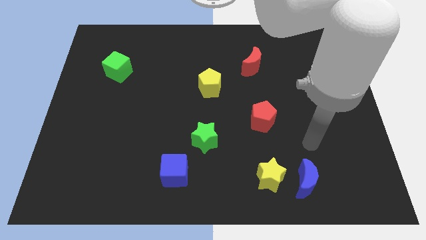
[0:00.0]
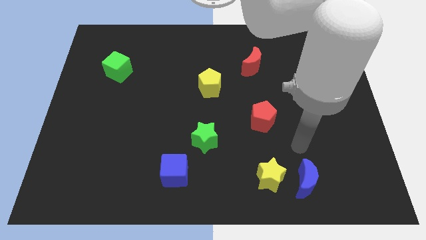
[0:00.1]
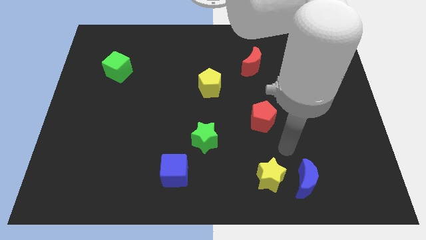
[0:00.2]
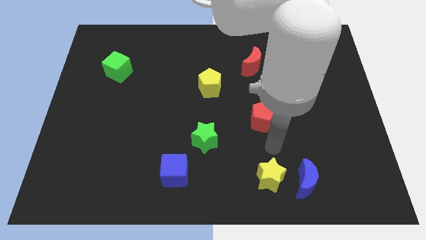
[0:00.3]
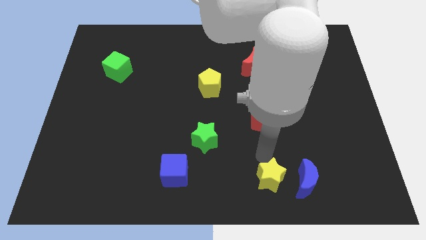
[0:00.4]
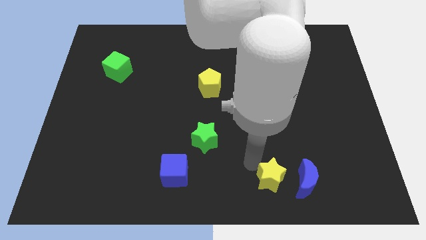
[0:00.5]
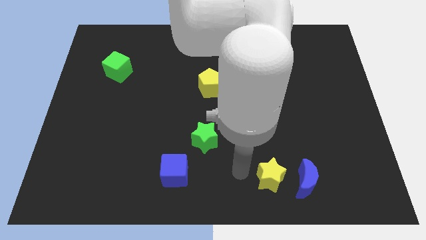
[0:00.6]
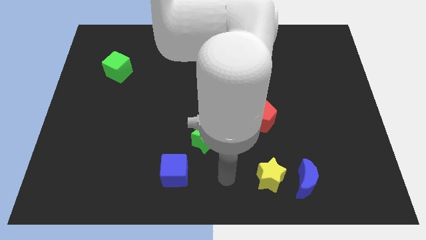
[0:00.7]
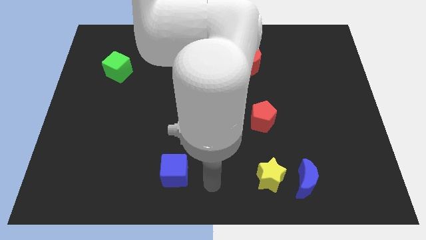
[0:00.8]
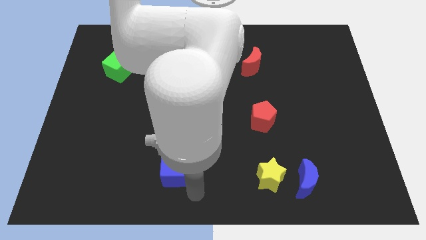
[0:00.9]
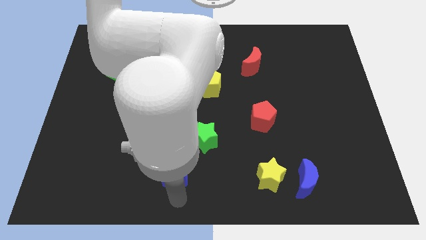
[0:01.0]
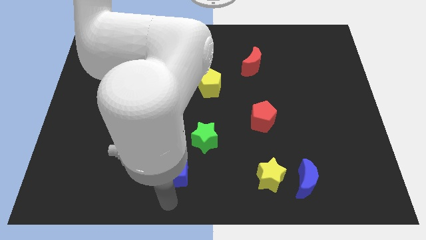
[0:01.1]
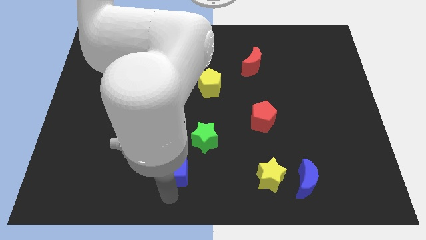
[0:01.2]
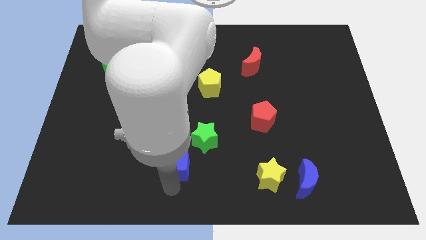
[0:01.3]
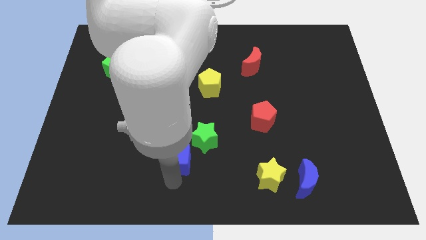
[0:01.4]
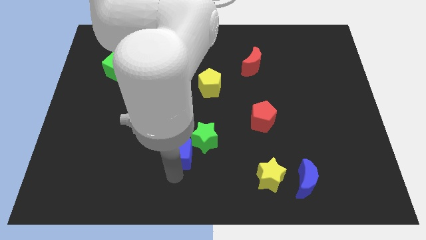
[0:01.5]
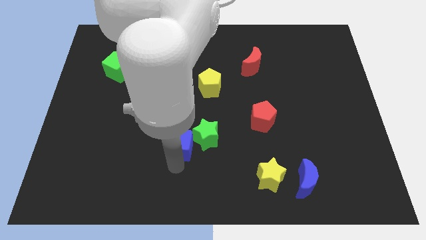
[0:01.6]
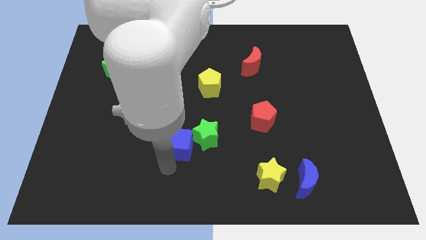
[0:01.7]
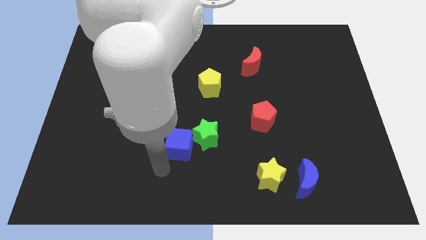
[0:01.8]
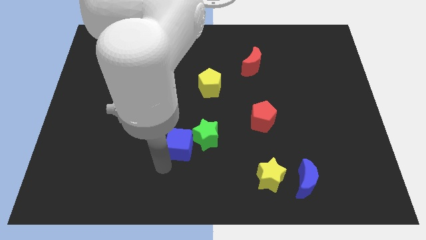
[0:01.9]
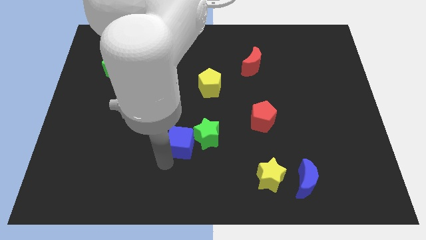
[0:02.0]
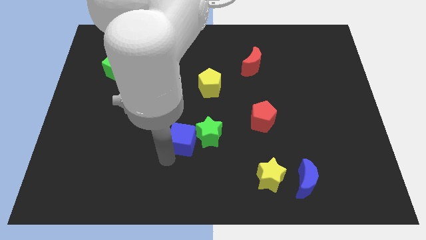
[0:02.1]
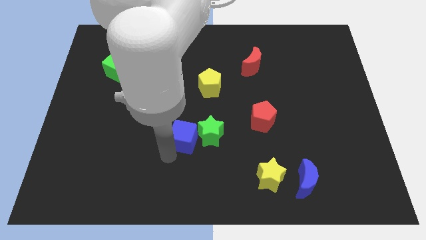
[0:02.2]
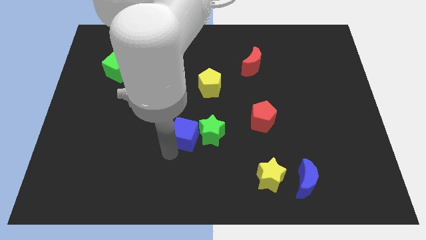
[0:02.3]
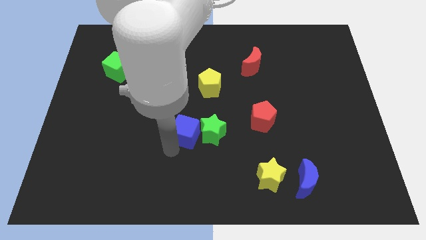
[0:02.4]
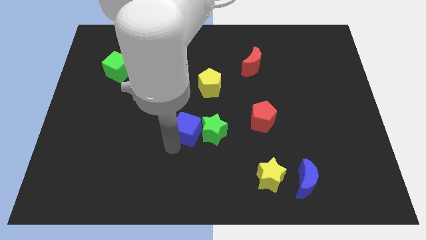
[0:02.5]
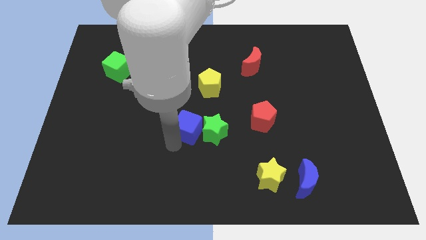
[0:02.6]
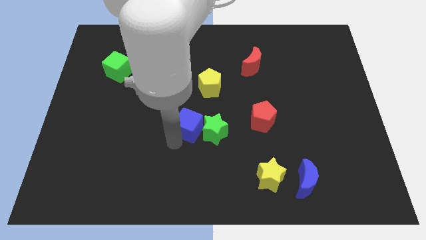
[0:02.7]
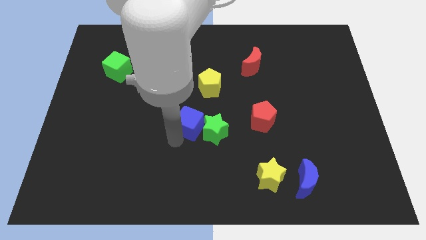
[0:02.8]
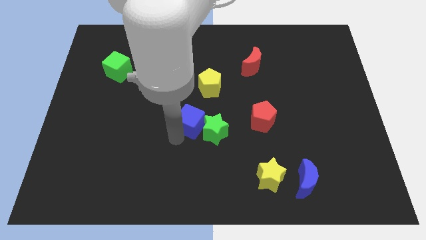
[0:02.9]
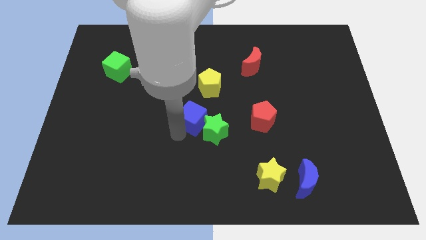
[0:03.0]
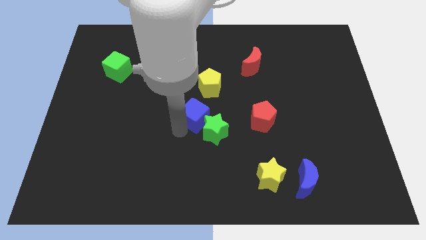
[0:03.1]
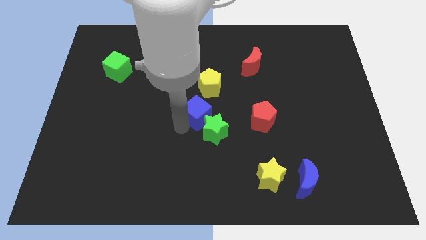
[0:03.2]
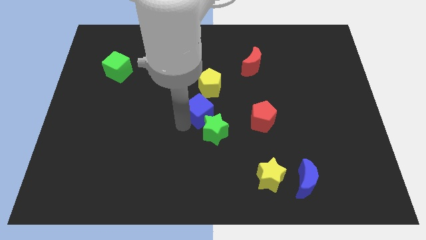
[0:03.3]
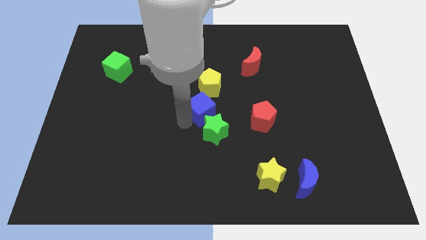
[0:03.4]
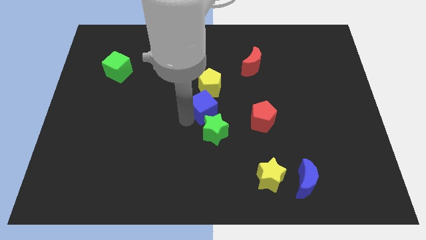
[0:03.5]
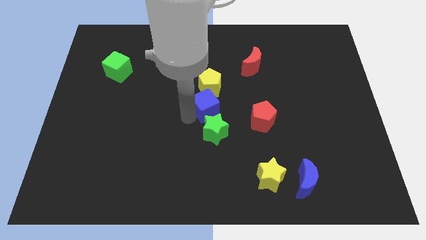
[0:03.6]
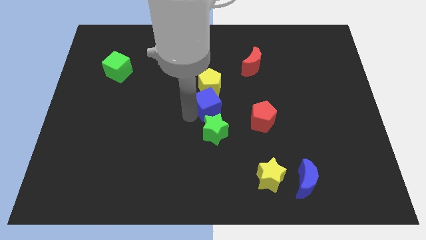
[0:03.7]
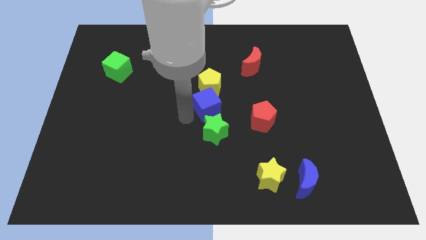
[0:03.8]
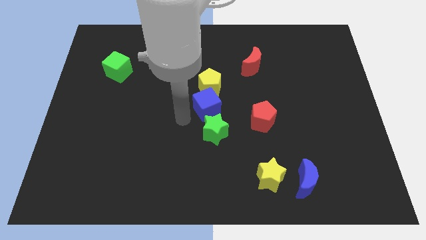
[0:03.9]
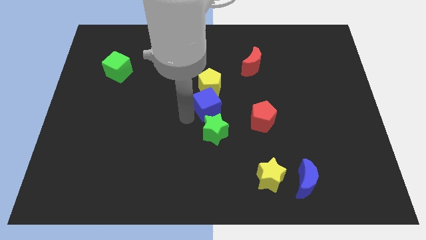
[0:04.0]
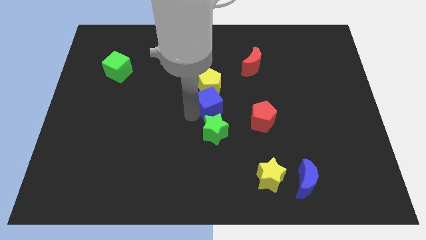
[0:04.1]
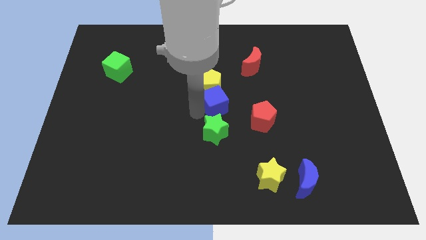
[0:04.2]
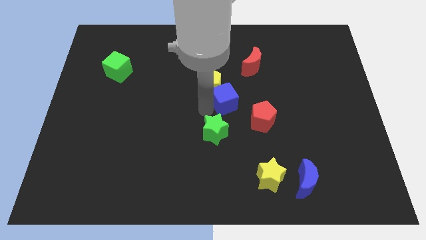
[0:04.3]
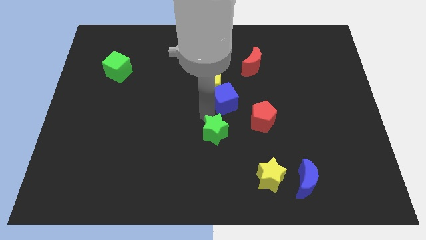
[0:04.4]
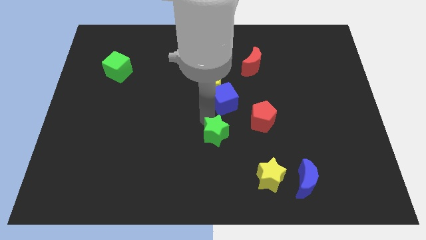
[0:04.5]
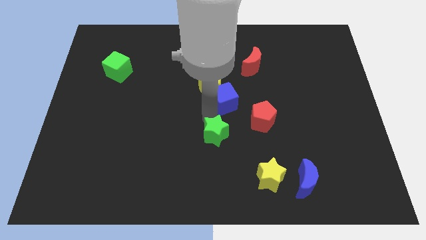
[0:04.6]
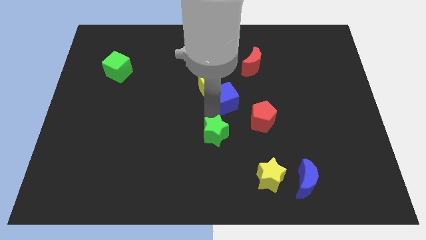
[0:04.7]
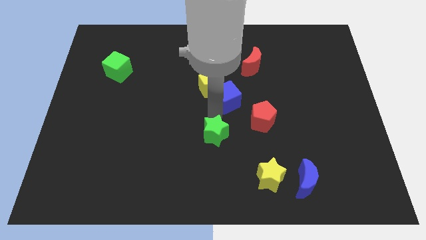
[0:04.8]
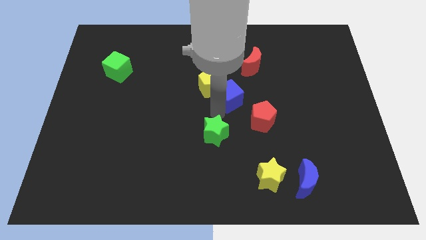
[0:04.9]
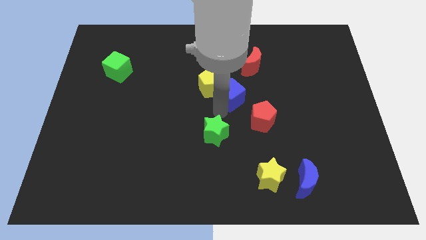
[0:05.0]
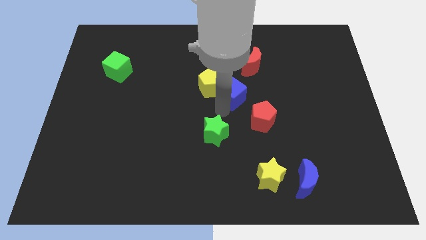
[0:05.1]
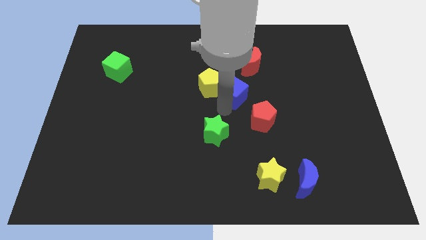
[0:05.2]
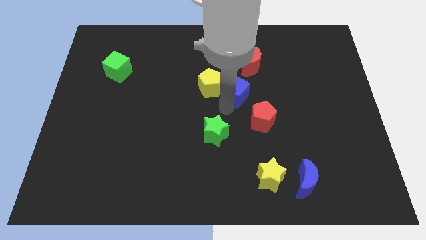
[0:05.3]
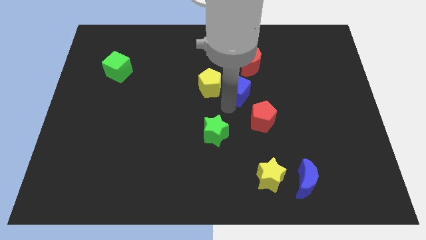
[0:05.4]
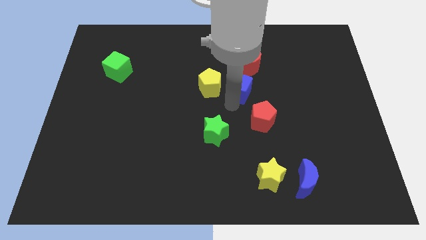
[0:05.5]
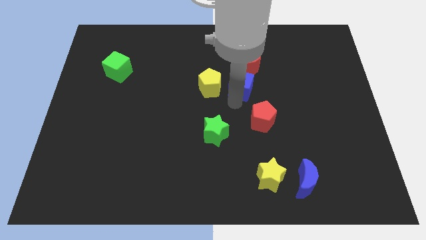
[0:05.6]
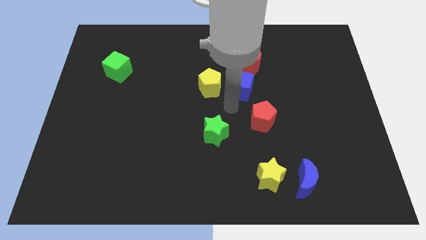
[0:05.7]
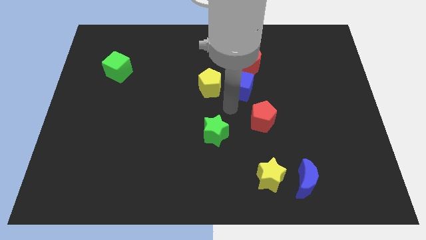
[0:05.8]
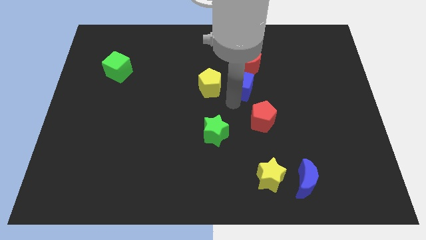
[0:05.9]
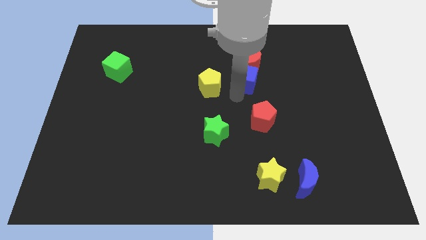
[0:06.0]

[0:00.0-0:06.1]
push the blue cube next to the red moon

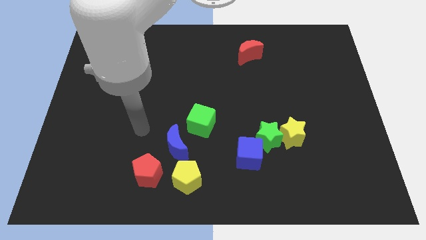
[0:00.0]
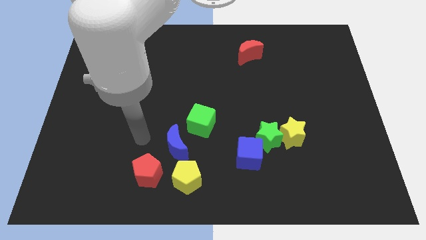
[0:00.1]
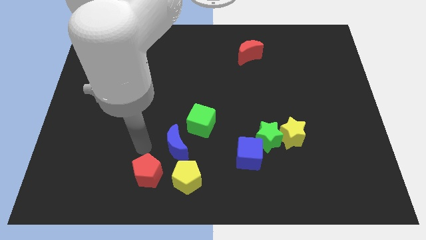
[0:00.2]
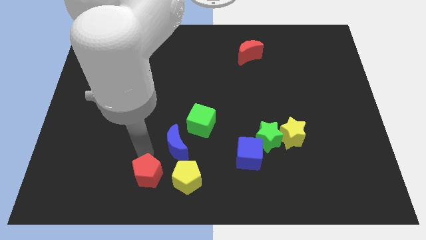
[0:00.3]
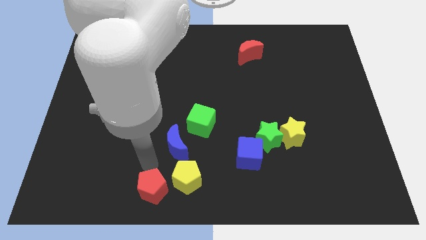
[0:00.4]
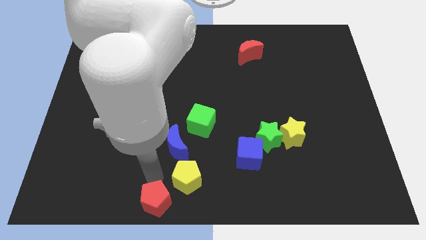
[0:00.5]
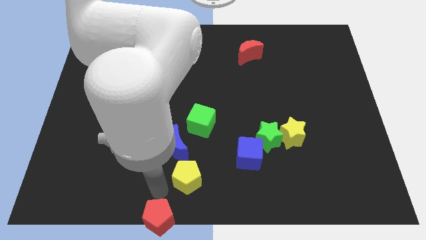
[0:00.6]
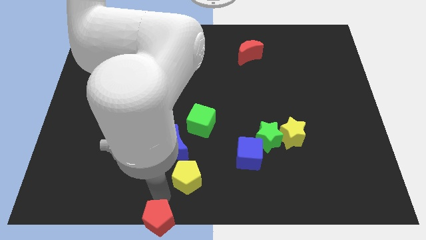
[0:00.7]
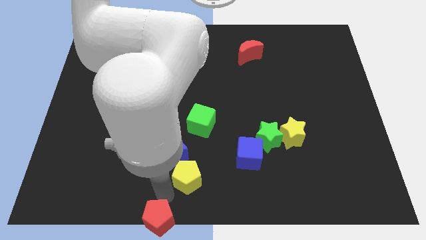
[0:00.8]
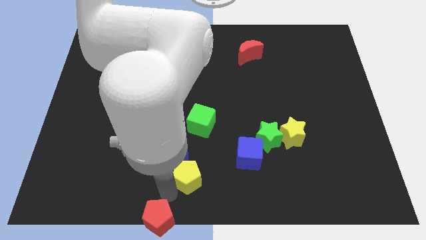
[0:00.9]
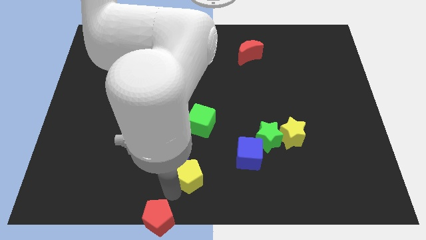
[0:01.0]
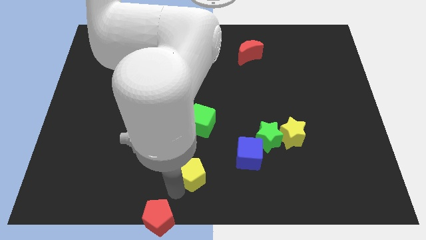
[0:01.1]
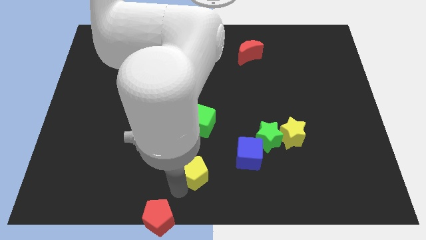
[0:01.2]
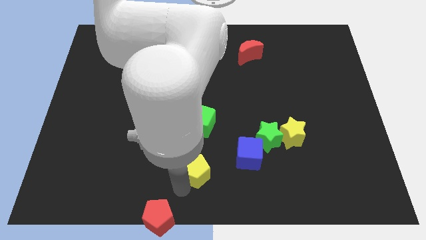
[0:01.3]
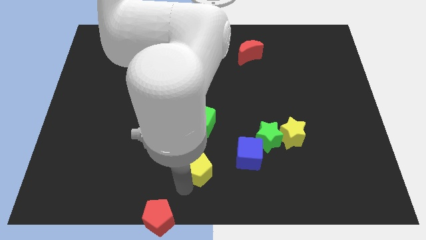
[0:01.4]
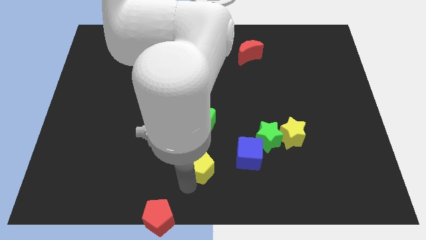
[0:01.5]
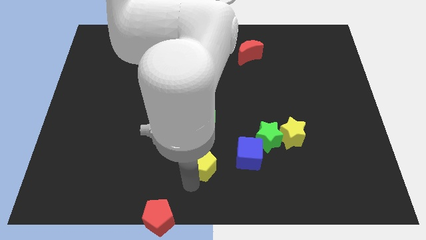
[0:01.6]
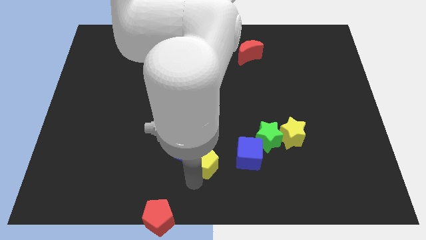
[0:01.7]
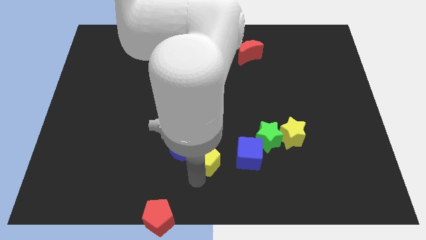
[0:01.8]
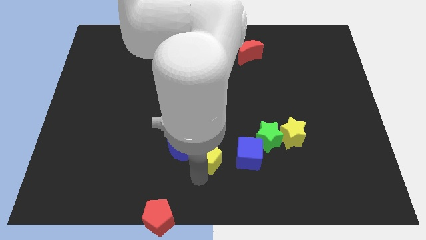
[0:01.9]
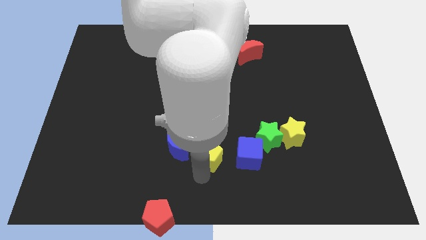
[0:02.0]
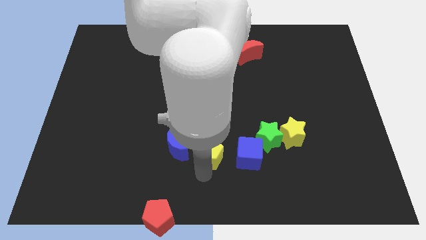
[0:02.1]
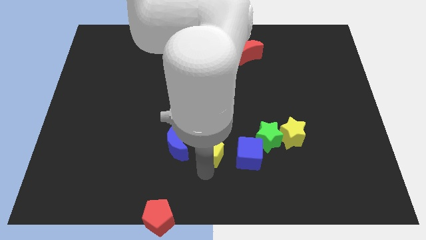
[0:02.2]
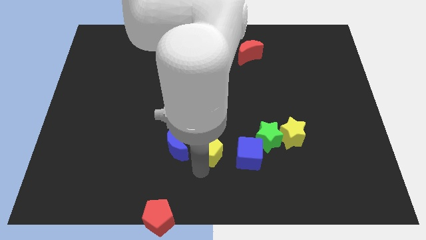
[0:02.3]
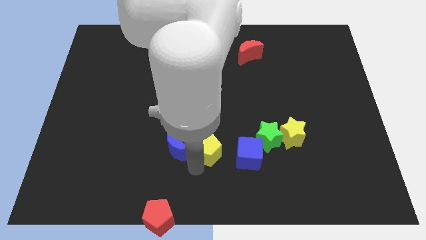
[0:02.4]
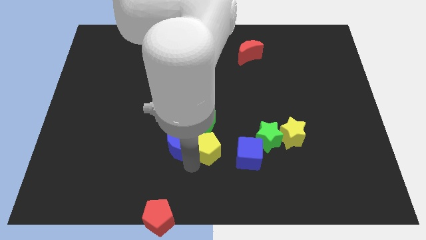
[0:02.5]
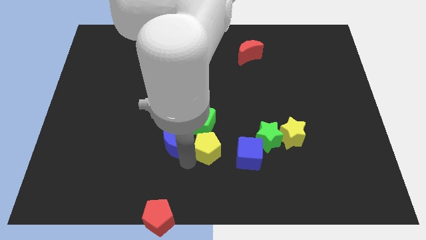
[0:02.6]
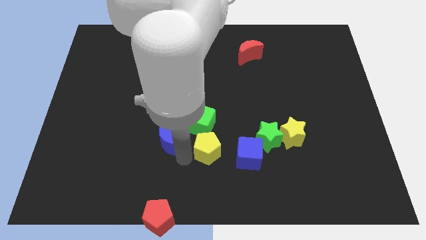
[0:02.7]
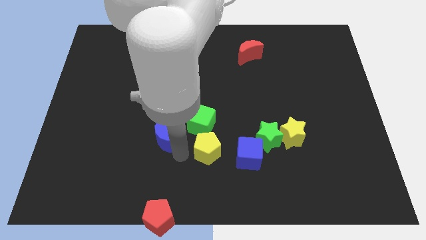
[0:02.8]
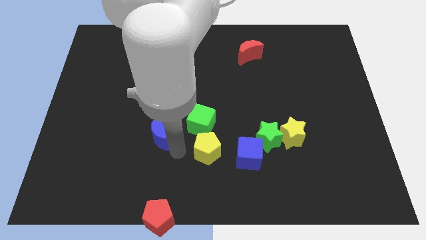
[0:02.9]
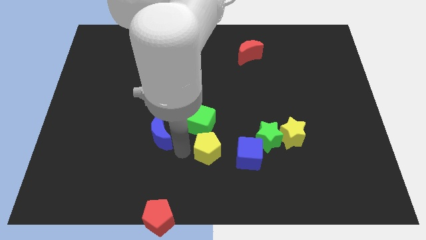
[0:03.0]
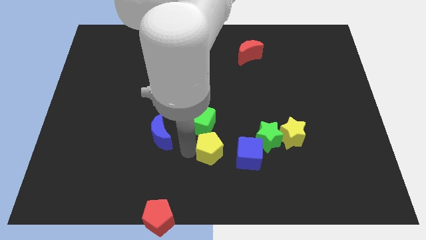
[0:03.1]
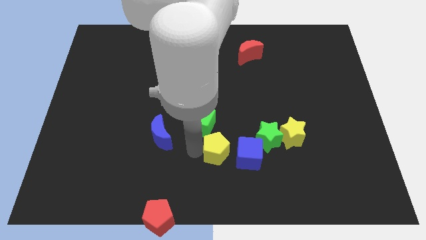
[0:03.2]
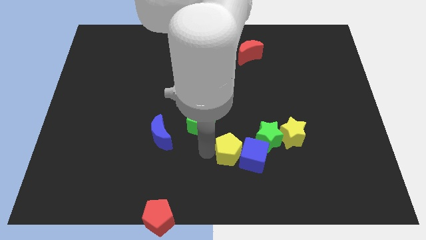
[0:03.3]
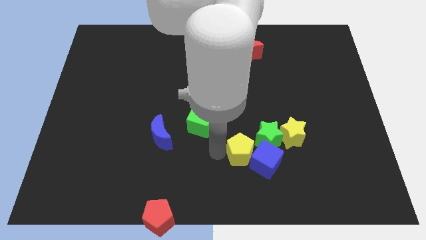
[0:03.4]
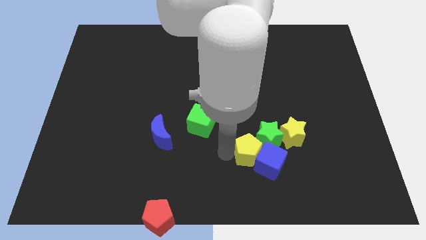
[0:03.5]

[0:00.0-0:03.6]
slide the yellow pentagon towards the green star
